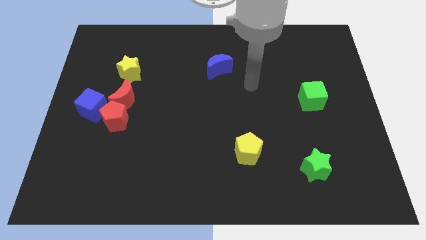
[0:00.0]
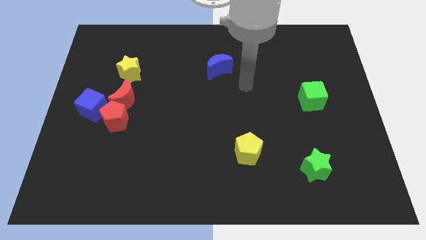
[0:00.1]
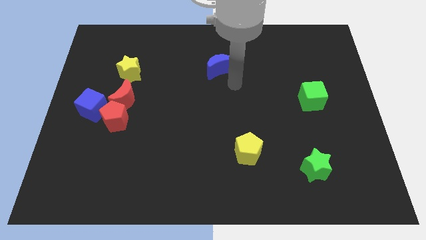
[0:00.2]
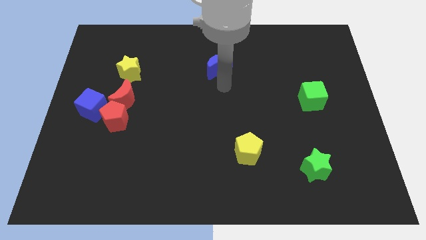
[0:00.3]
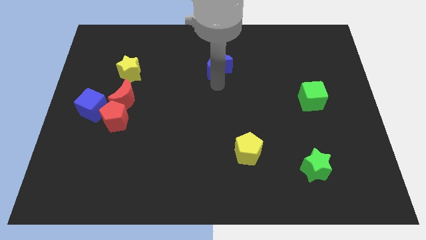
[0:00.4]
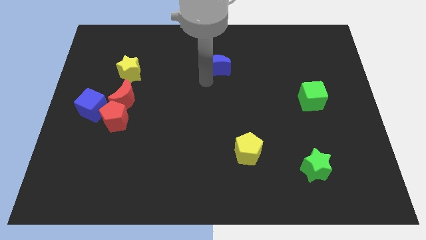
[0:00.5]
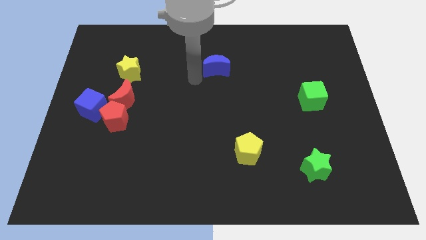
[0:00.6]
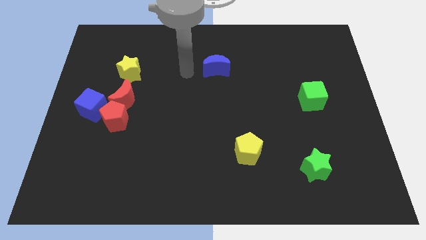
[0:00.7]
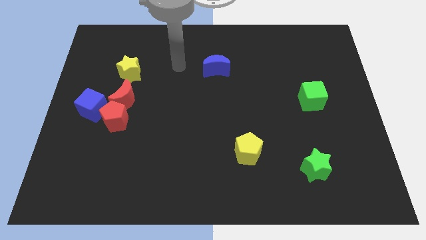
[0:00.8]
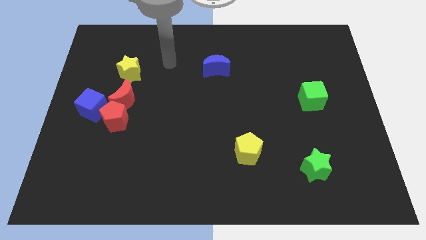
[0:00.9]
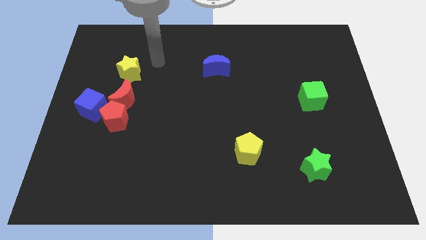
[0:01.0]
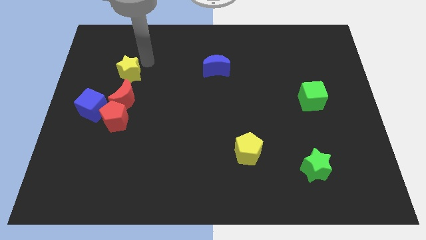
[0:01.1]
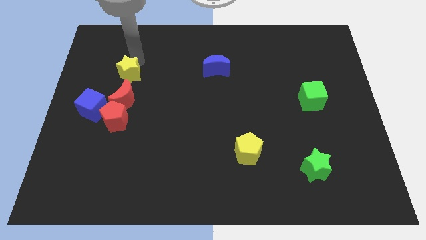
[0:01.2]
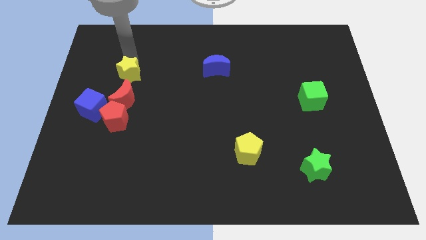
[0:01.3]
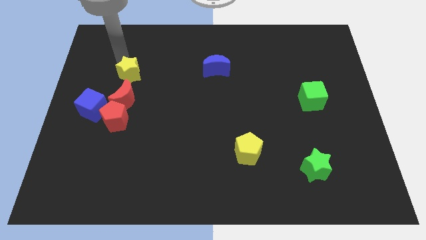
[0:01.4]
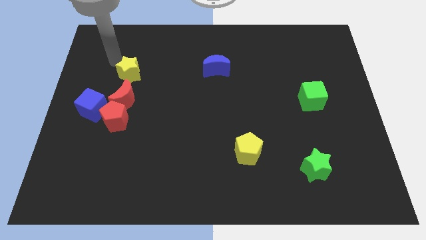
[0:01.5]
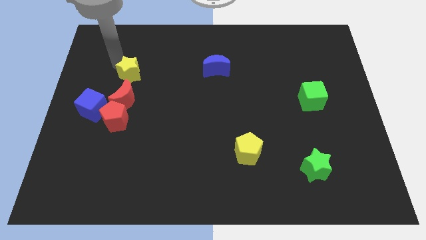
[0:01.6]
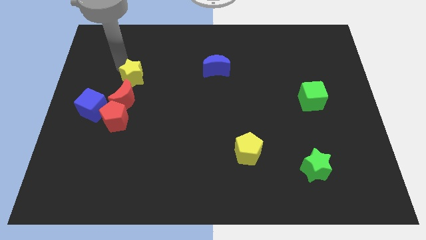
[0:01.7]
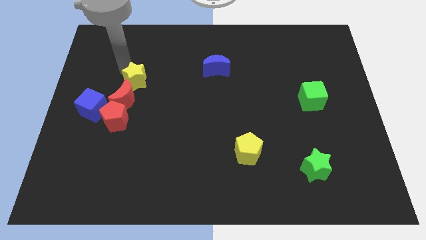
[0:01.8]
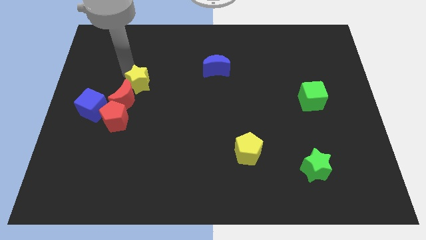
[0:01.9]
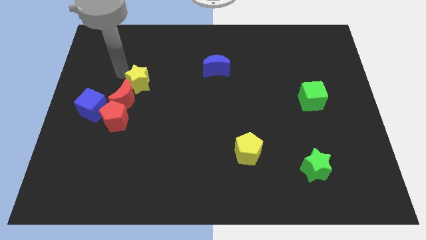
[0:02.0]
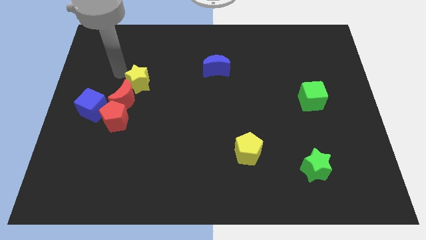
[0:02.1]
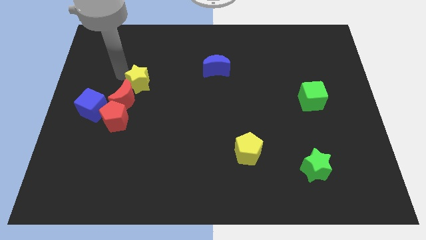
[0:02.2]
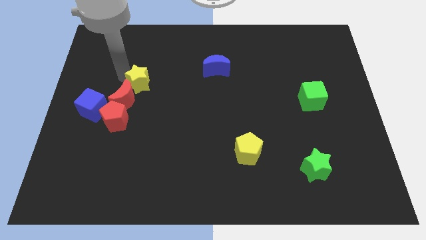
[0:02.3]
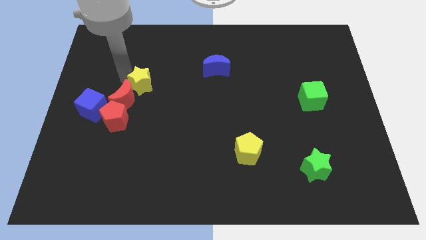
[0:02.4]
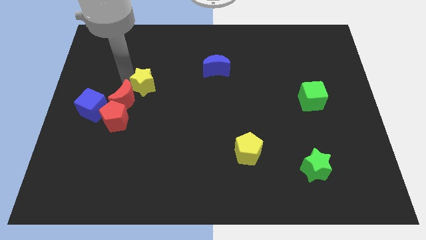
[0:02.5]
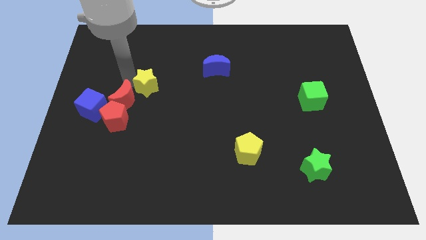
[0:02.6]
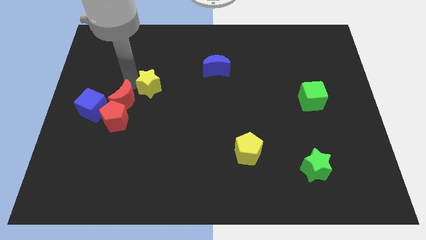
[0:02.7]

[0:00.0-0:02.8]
slightly push the yellow star downwards and right

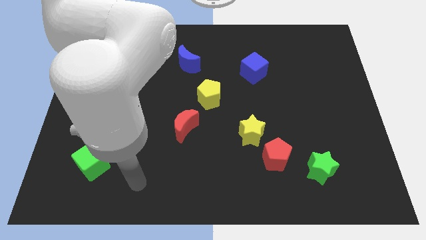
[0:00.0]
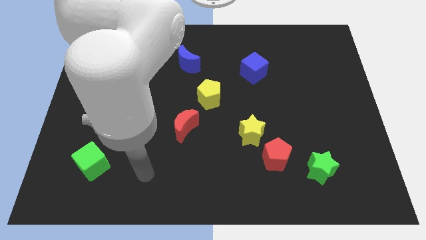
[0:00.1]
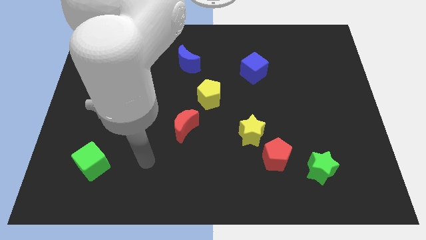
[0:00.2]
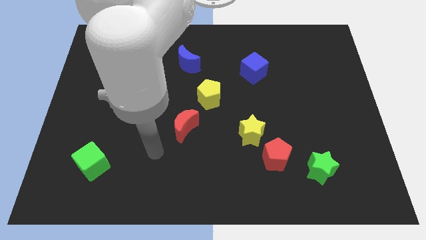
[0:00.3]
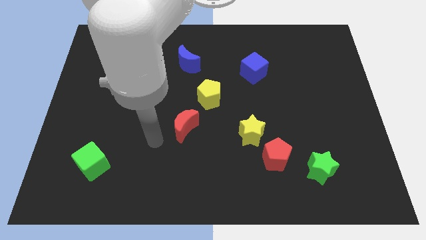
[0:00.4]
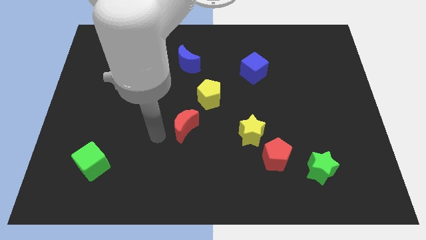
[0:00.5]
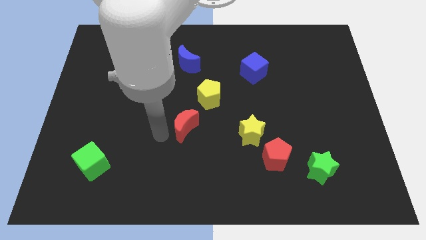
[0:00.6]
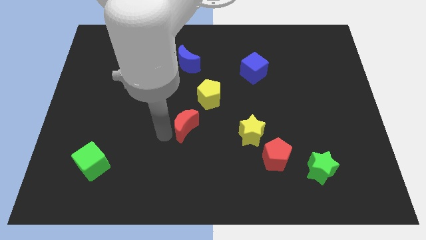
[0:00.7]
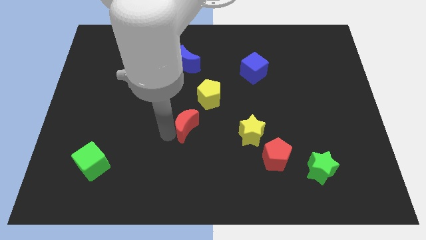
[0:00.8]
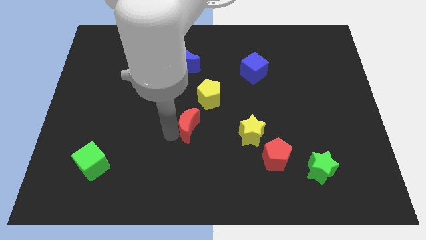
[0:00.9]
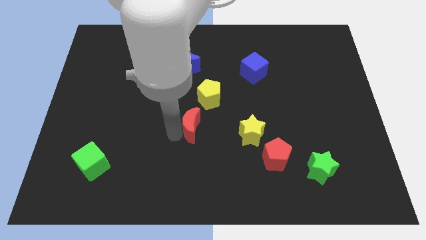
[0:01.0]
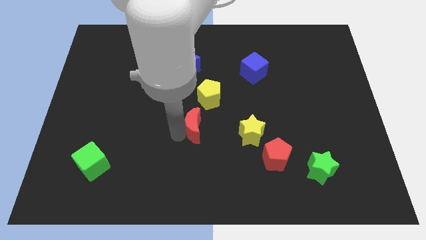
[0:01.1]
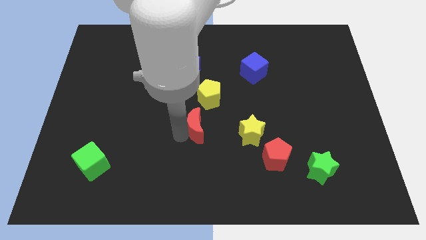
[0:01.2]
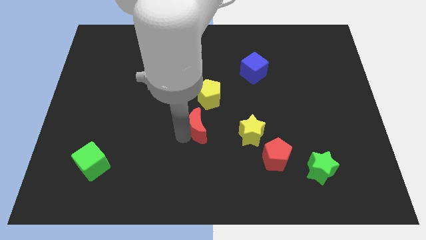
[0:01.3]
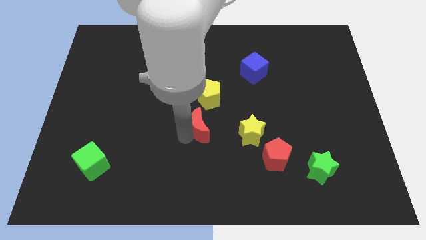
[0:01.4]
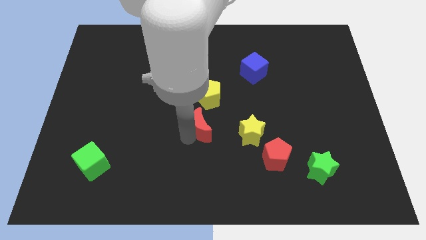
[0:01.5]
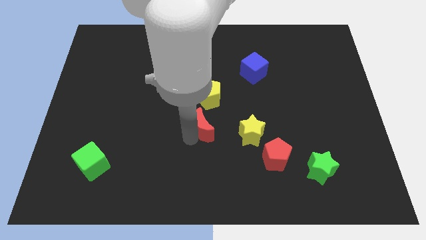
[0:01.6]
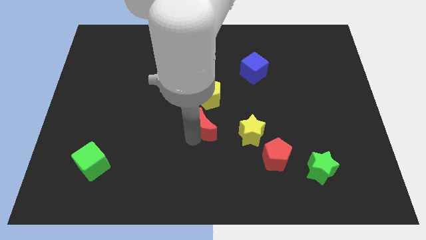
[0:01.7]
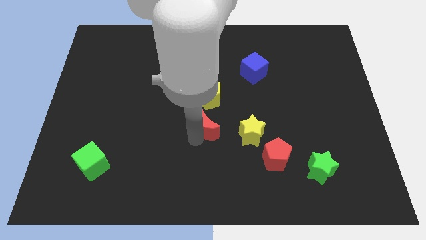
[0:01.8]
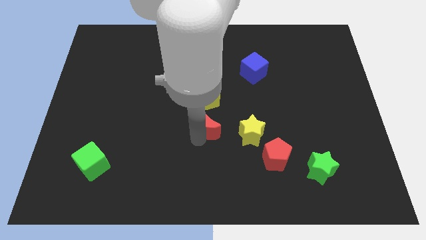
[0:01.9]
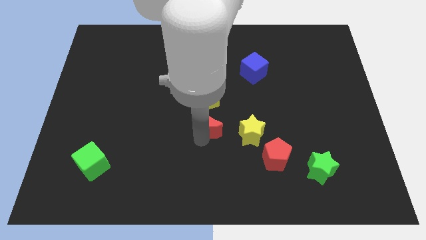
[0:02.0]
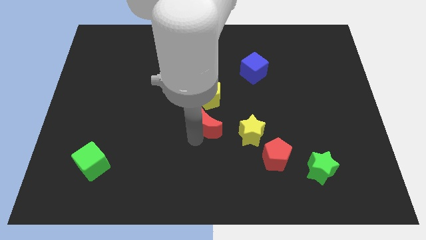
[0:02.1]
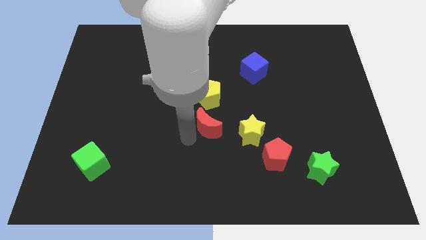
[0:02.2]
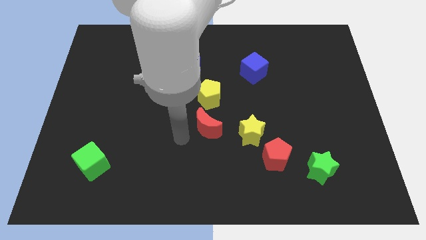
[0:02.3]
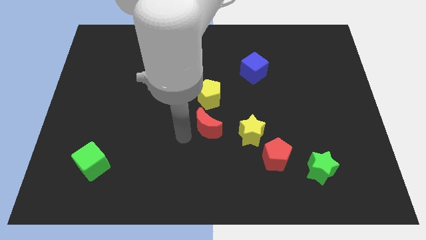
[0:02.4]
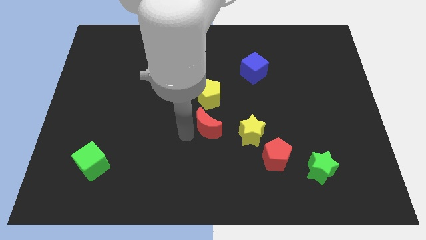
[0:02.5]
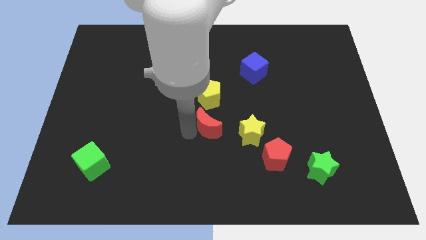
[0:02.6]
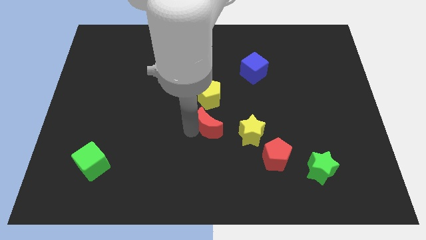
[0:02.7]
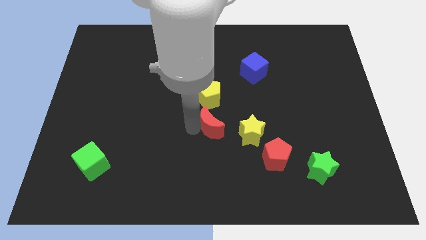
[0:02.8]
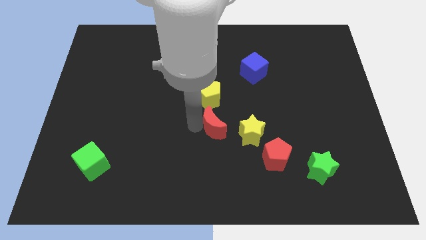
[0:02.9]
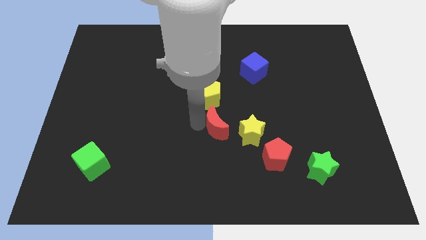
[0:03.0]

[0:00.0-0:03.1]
move the red moon somewhat to the right

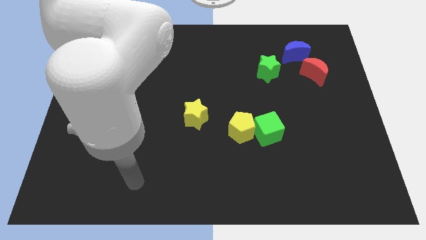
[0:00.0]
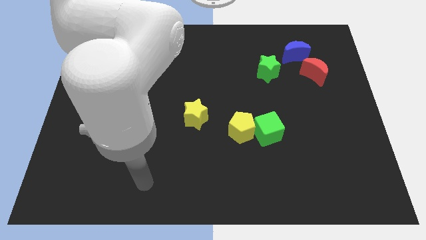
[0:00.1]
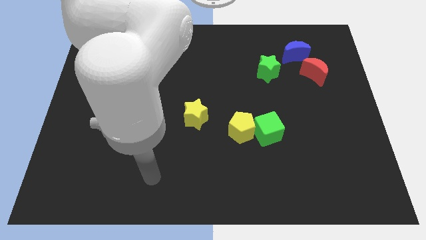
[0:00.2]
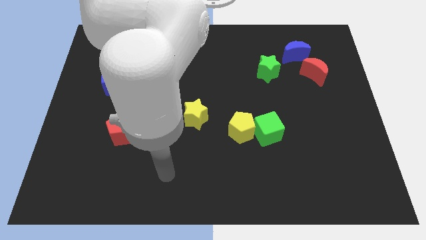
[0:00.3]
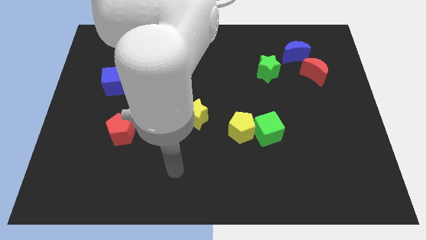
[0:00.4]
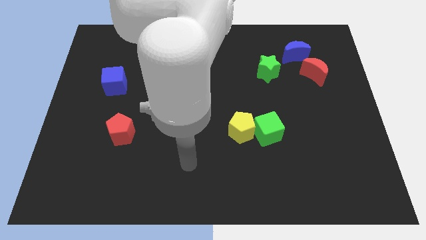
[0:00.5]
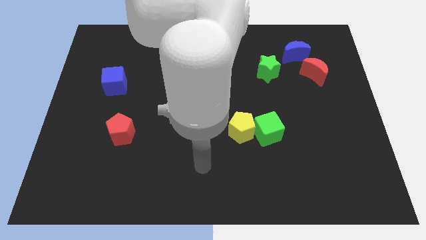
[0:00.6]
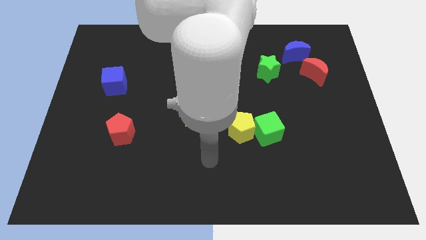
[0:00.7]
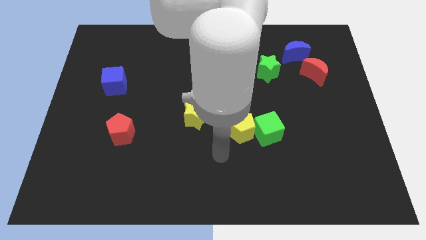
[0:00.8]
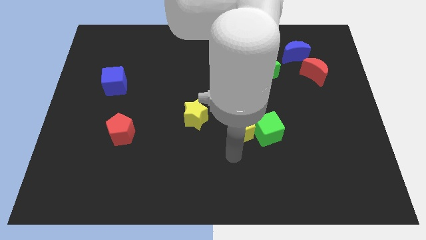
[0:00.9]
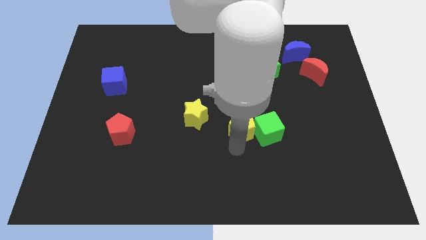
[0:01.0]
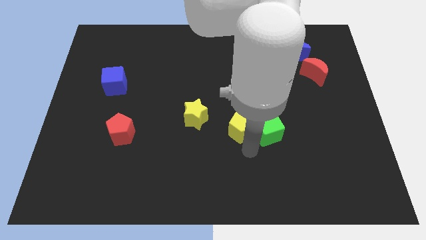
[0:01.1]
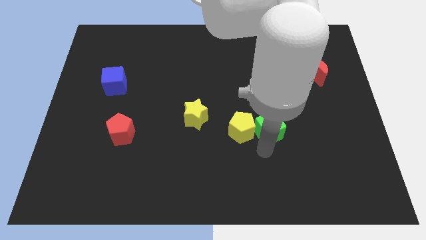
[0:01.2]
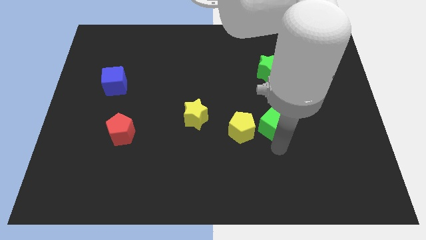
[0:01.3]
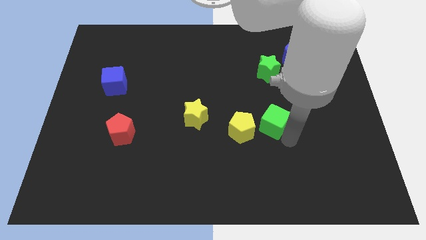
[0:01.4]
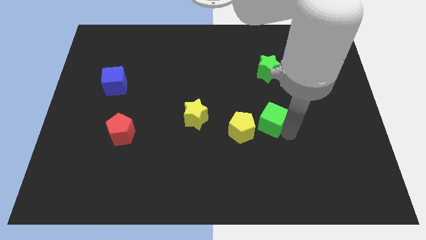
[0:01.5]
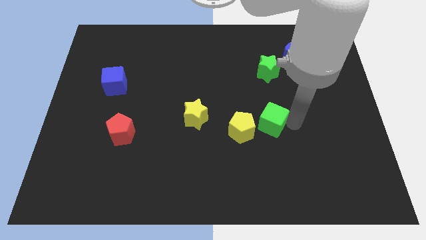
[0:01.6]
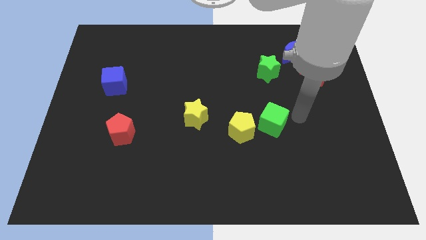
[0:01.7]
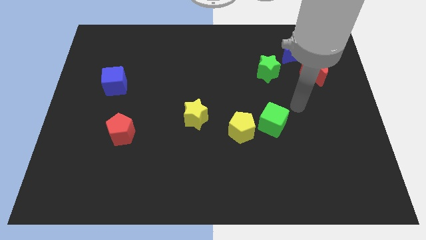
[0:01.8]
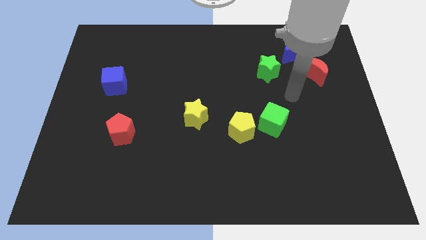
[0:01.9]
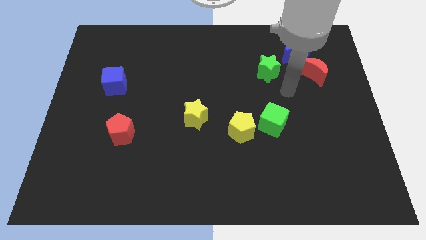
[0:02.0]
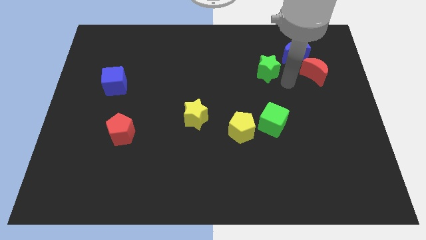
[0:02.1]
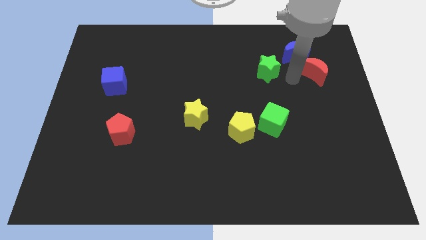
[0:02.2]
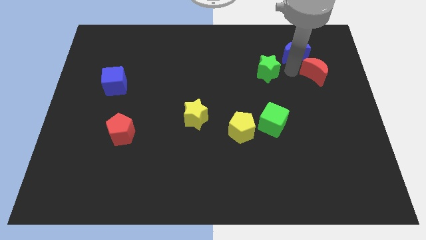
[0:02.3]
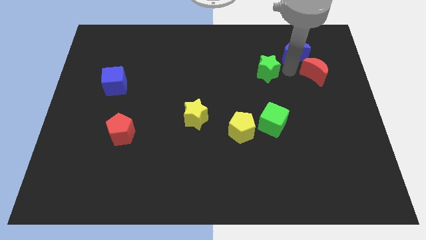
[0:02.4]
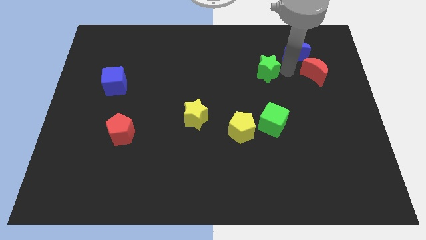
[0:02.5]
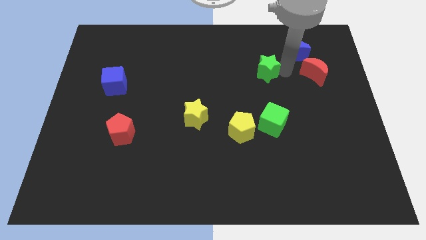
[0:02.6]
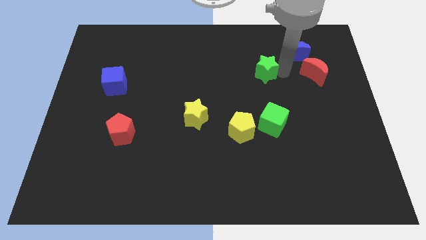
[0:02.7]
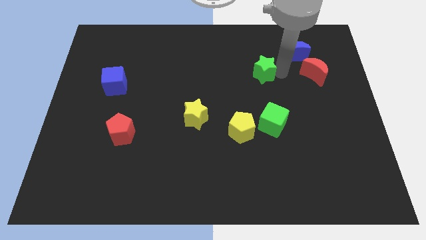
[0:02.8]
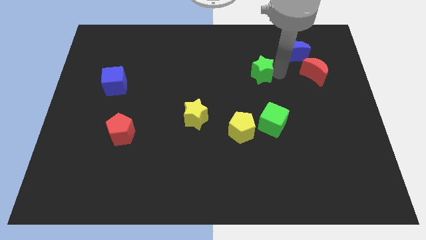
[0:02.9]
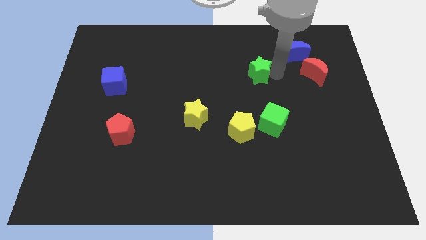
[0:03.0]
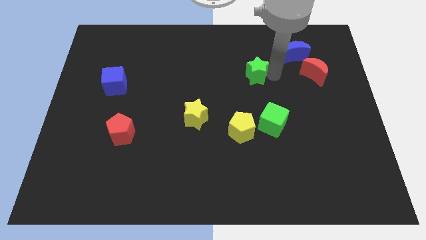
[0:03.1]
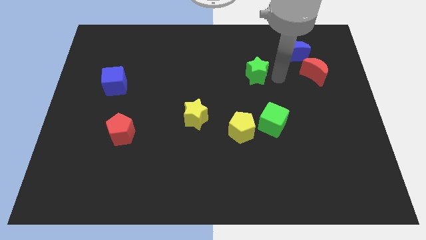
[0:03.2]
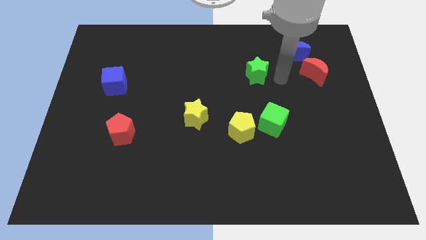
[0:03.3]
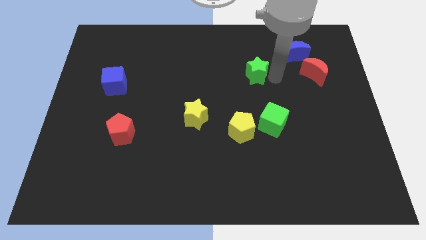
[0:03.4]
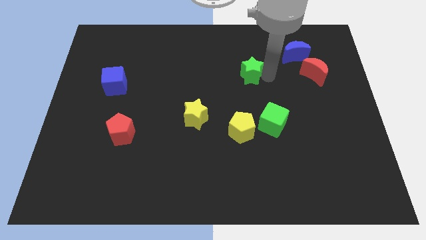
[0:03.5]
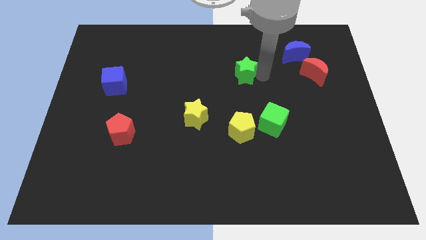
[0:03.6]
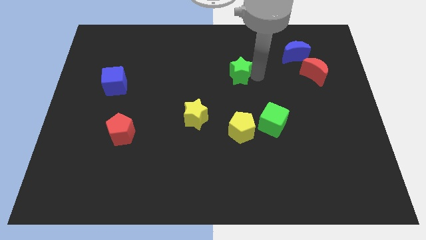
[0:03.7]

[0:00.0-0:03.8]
slightly slide the green star to the left
